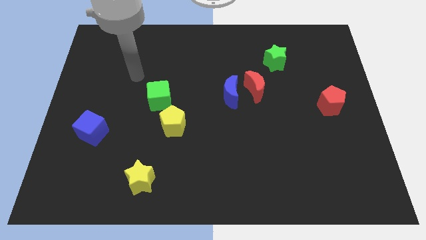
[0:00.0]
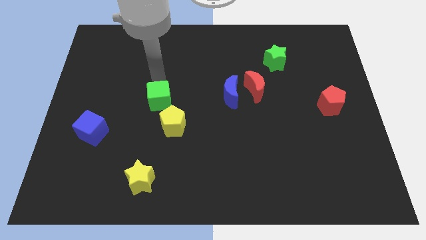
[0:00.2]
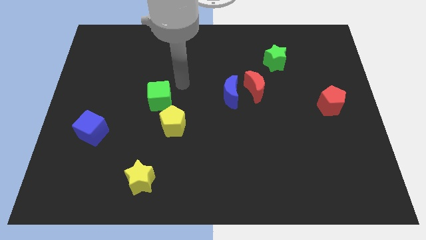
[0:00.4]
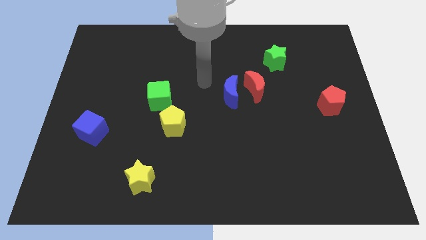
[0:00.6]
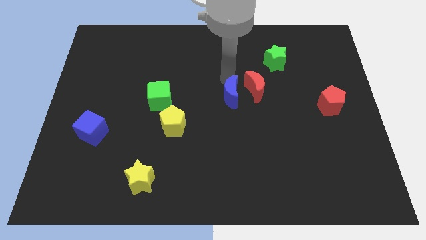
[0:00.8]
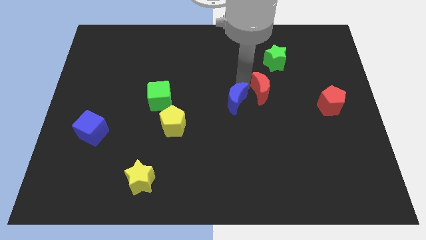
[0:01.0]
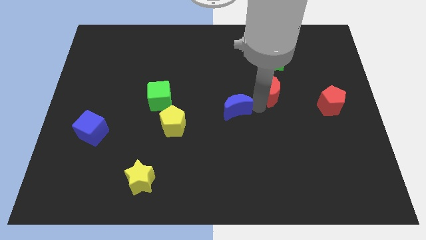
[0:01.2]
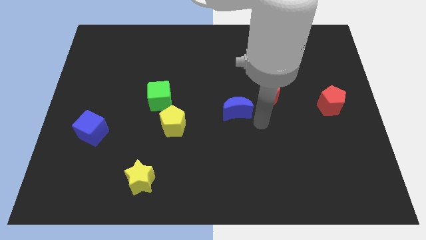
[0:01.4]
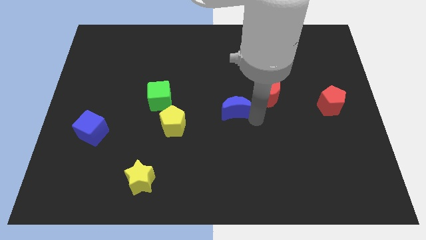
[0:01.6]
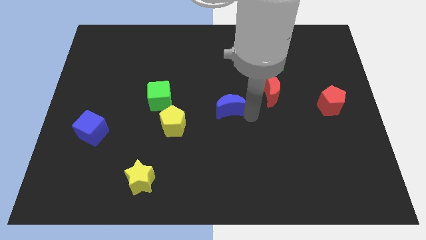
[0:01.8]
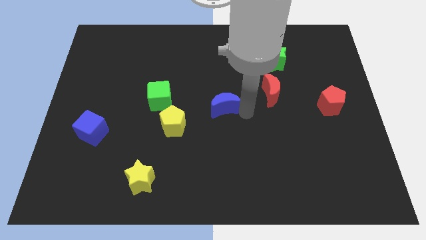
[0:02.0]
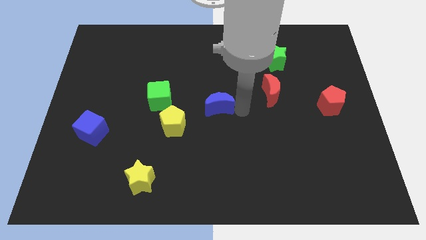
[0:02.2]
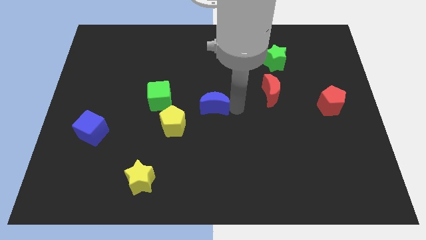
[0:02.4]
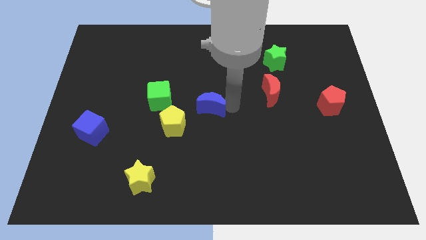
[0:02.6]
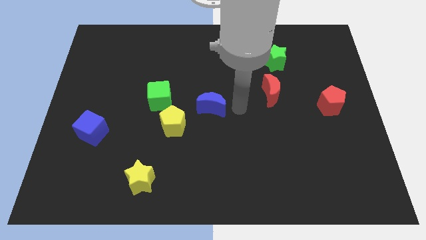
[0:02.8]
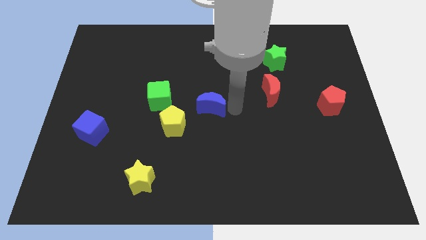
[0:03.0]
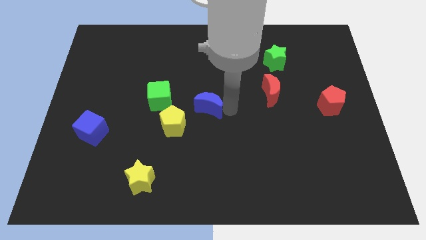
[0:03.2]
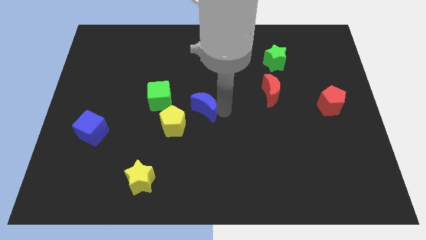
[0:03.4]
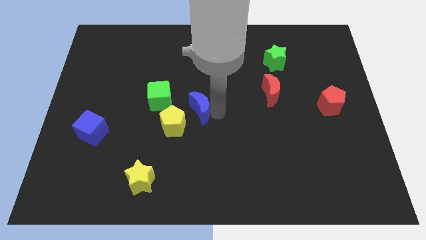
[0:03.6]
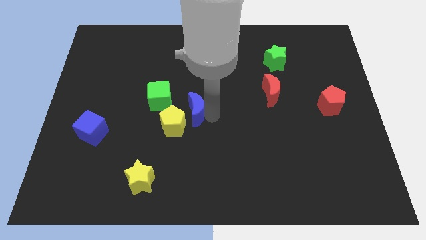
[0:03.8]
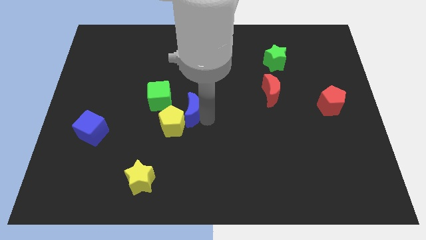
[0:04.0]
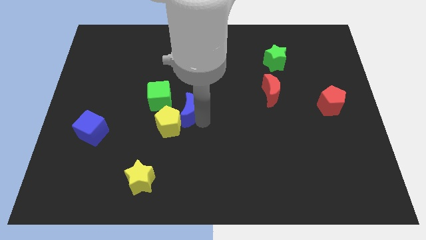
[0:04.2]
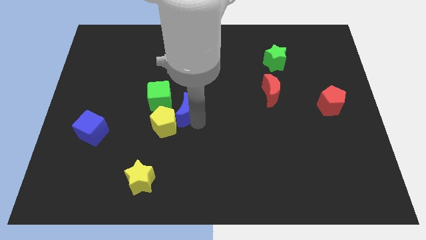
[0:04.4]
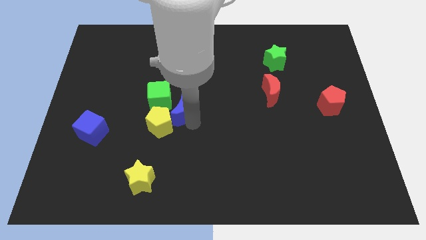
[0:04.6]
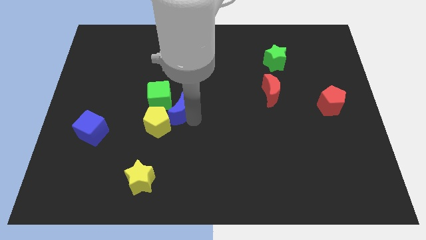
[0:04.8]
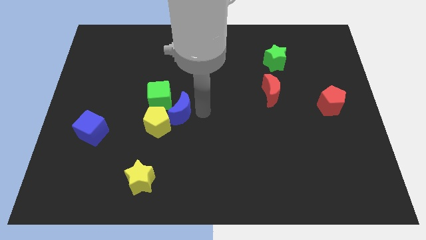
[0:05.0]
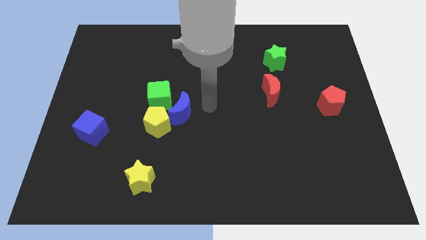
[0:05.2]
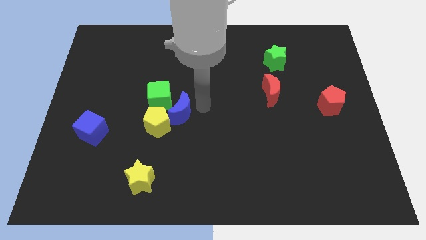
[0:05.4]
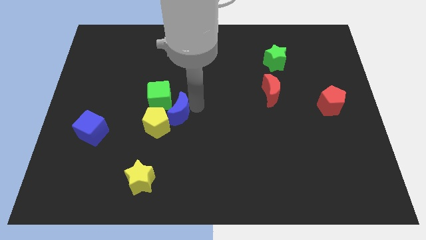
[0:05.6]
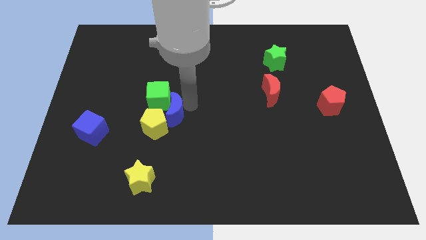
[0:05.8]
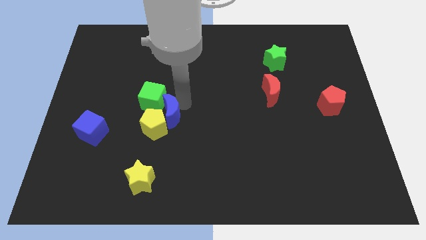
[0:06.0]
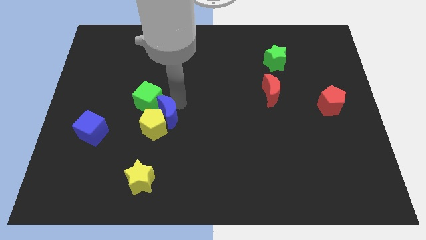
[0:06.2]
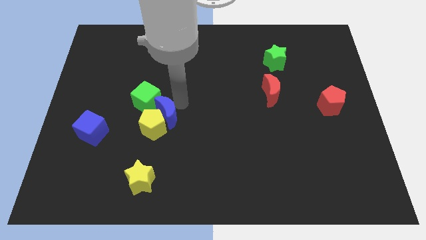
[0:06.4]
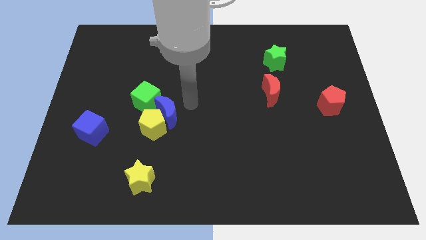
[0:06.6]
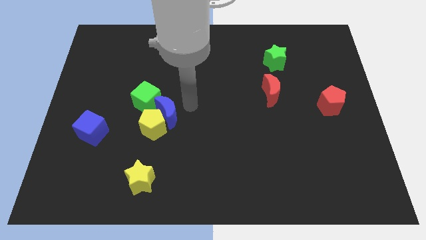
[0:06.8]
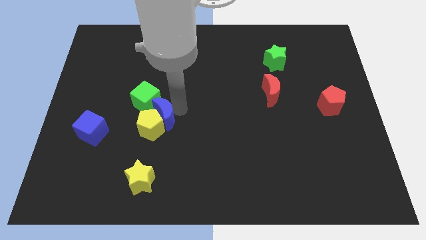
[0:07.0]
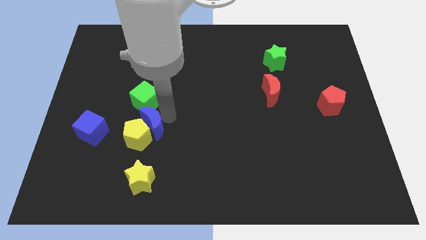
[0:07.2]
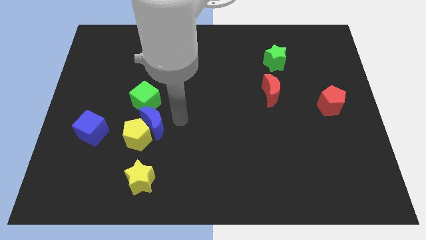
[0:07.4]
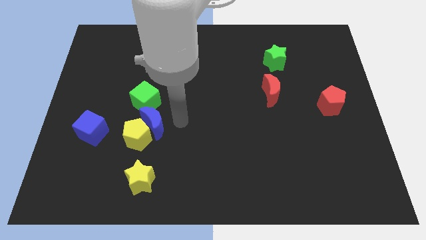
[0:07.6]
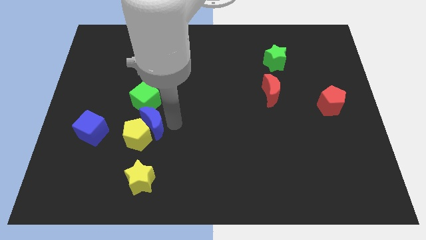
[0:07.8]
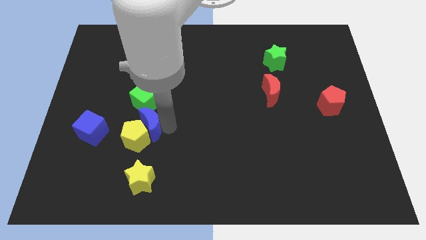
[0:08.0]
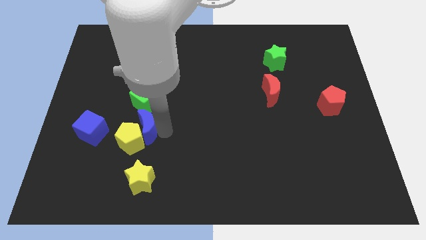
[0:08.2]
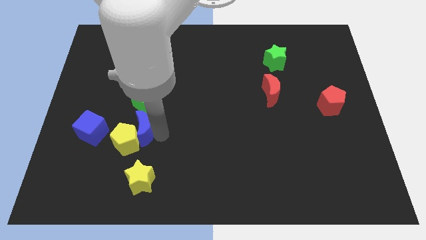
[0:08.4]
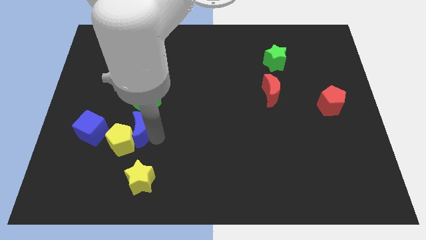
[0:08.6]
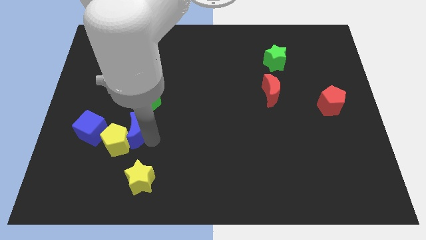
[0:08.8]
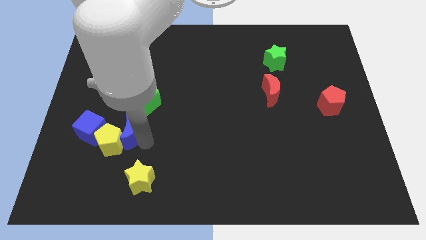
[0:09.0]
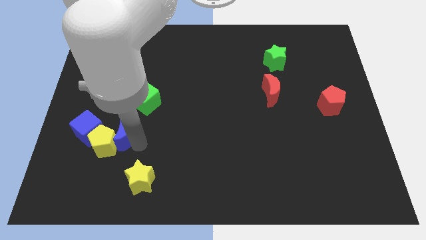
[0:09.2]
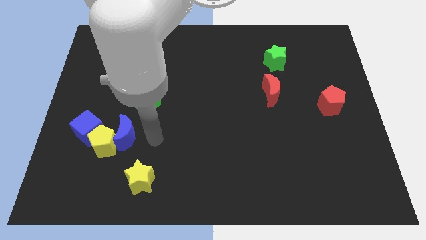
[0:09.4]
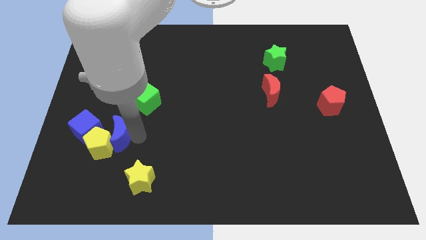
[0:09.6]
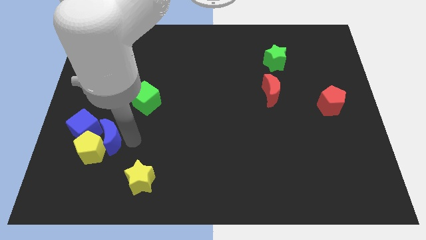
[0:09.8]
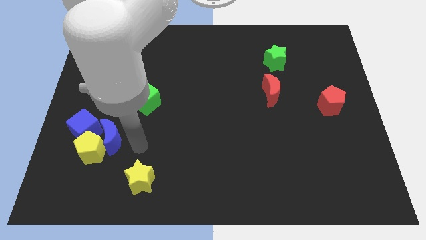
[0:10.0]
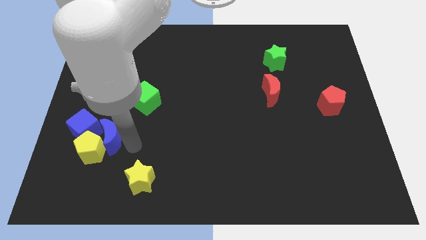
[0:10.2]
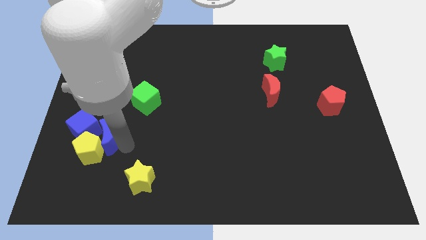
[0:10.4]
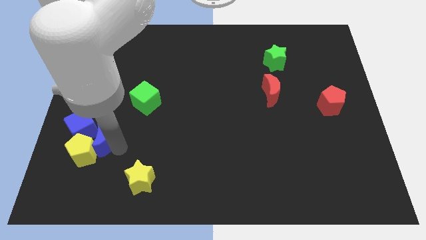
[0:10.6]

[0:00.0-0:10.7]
put the blue moon towards the blue cube

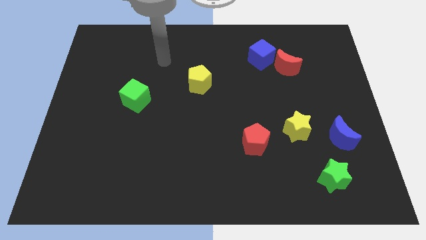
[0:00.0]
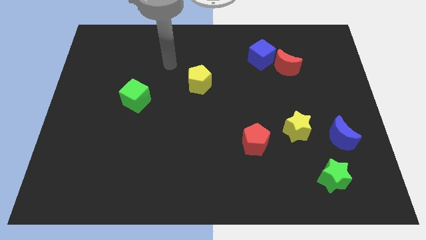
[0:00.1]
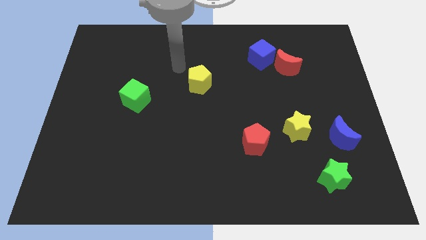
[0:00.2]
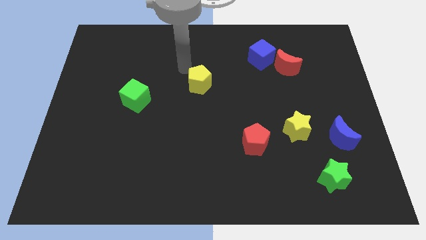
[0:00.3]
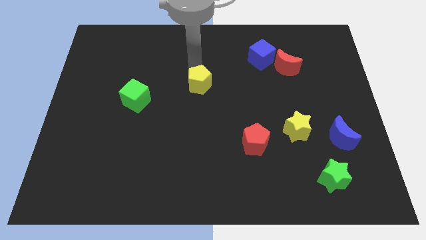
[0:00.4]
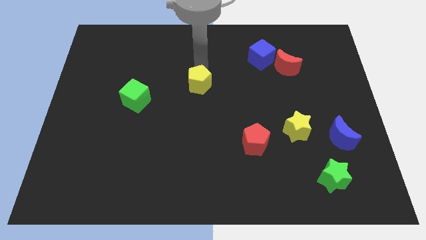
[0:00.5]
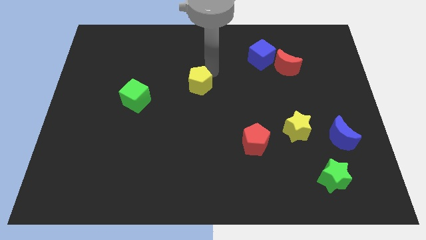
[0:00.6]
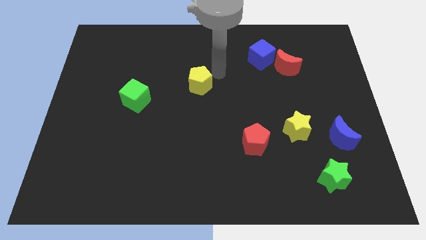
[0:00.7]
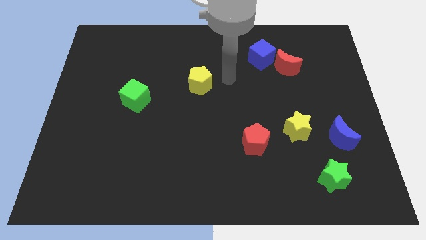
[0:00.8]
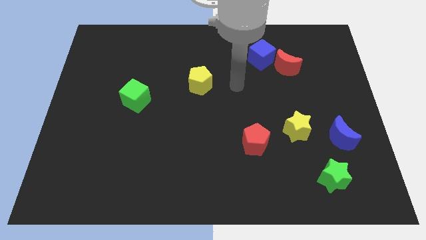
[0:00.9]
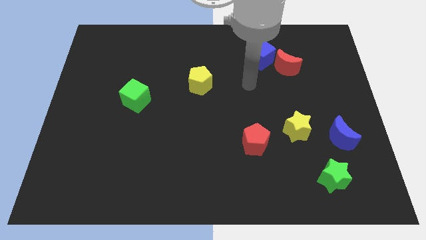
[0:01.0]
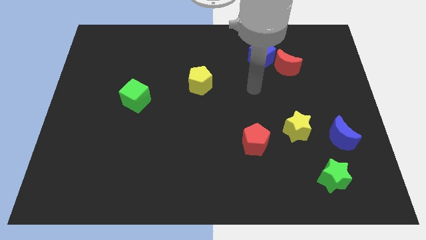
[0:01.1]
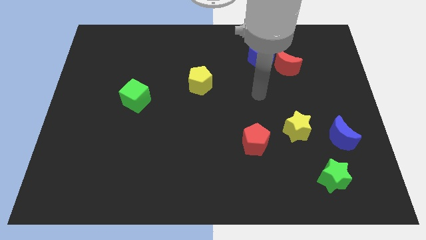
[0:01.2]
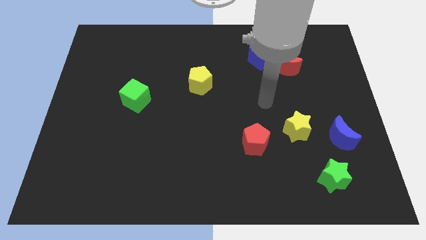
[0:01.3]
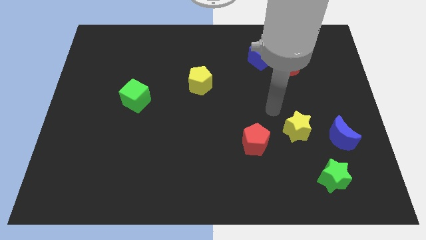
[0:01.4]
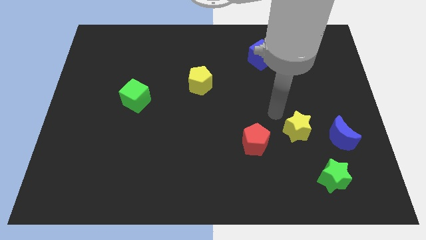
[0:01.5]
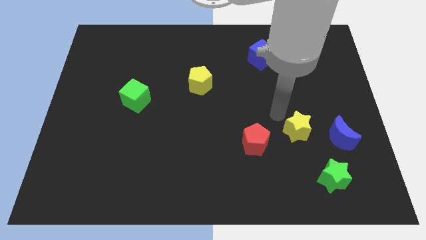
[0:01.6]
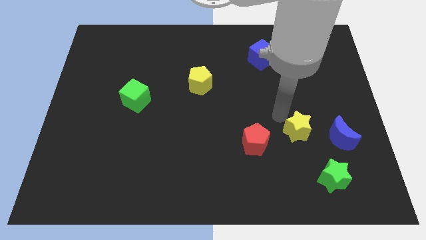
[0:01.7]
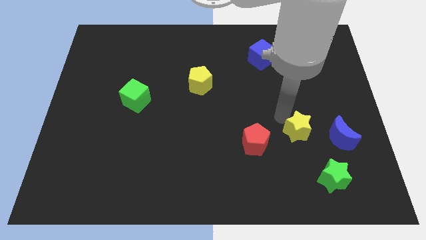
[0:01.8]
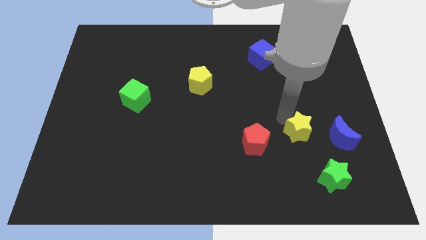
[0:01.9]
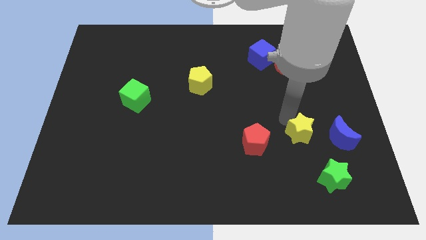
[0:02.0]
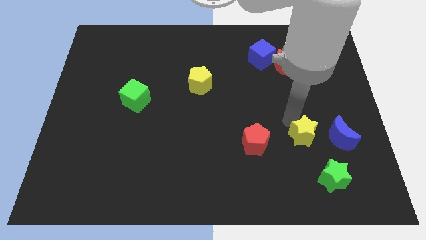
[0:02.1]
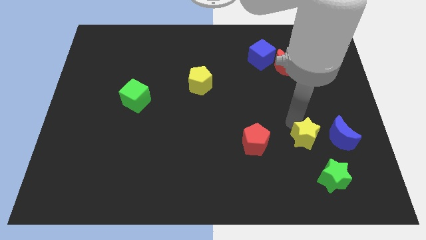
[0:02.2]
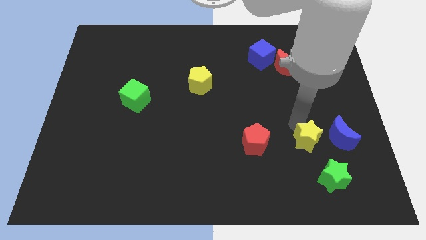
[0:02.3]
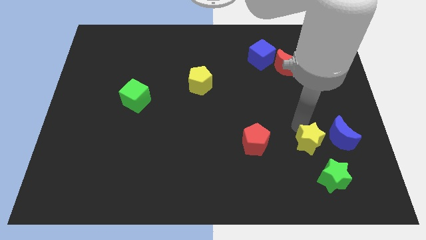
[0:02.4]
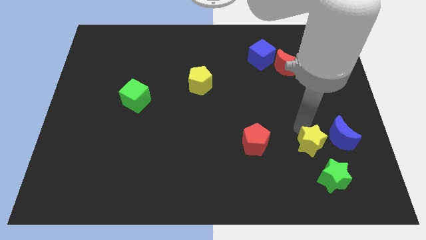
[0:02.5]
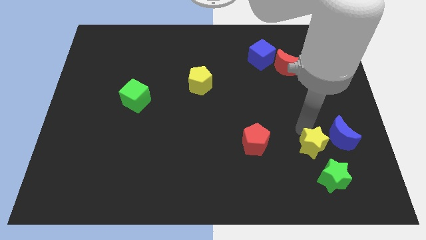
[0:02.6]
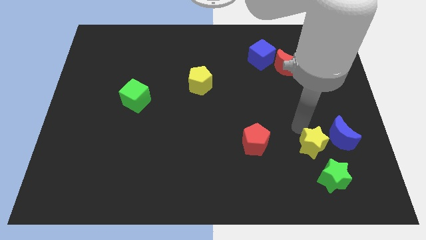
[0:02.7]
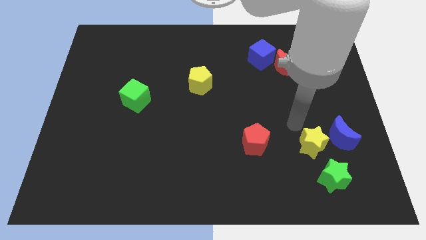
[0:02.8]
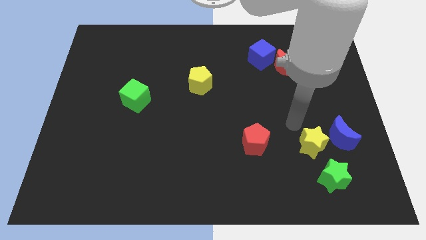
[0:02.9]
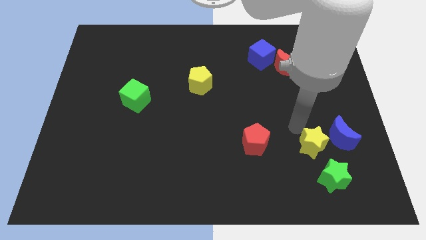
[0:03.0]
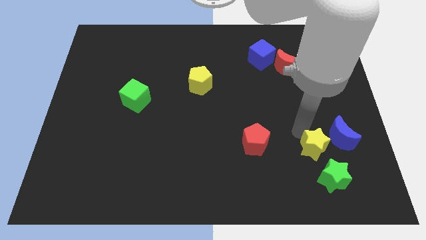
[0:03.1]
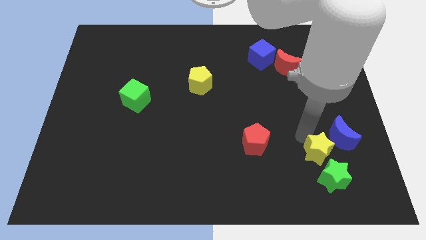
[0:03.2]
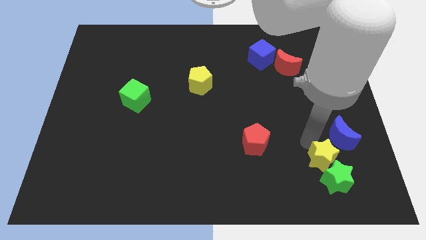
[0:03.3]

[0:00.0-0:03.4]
slide the yellow star towards the green star
